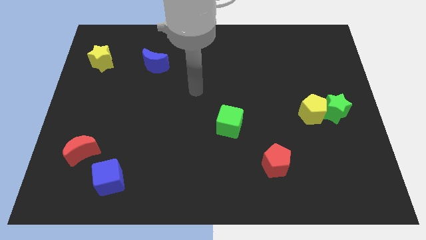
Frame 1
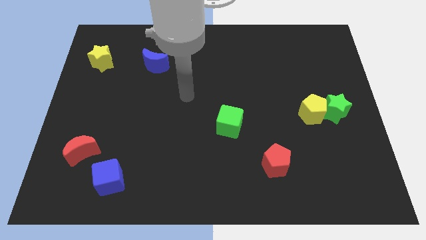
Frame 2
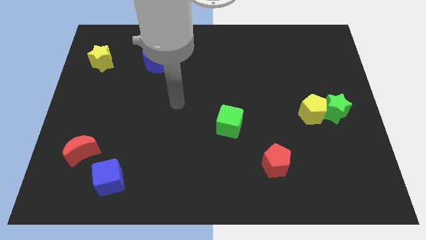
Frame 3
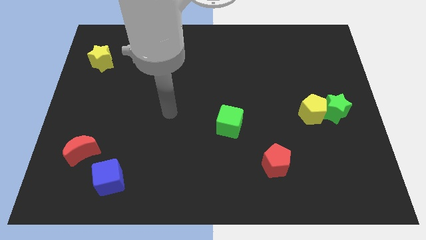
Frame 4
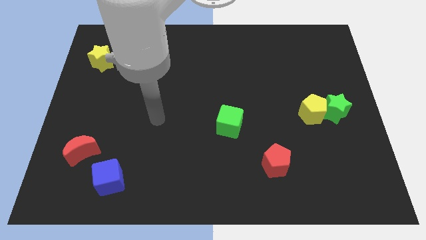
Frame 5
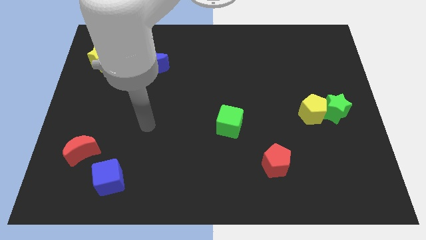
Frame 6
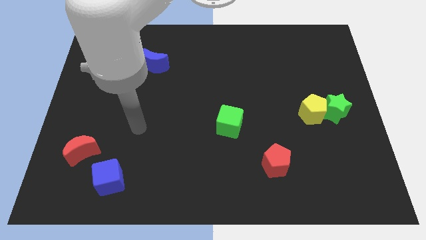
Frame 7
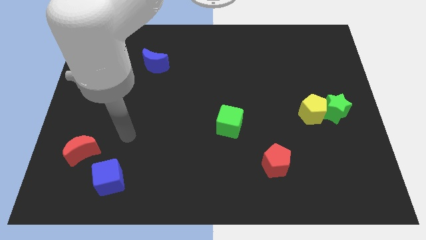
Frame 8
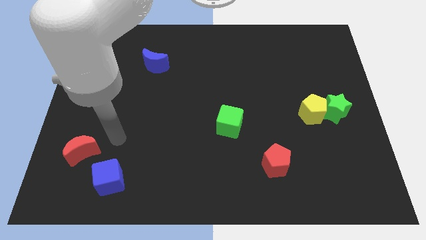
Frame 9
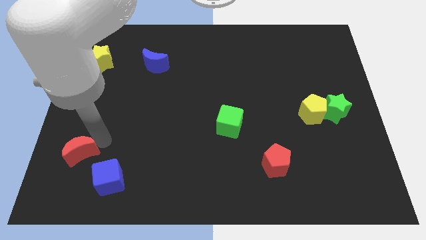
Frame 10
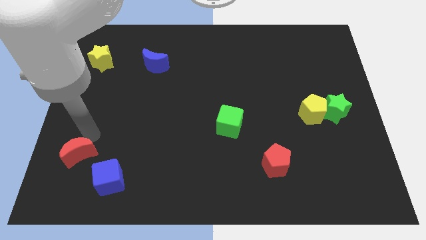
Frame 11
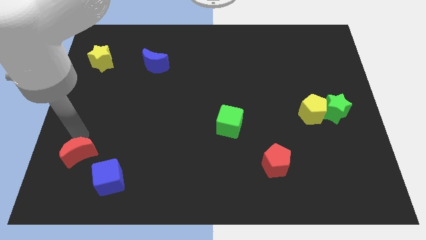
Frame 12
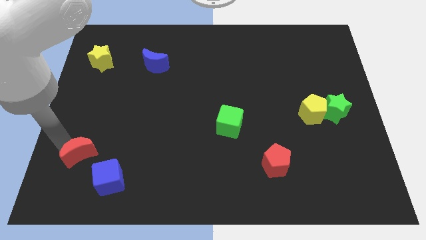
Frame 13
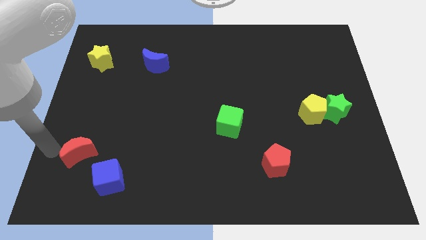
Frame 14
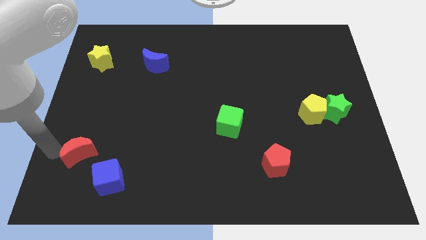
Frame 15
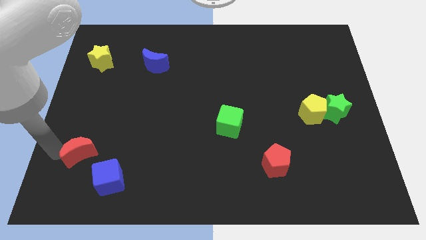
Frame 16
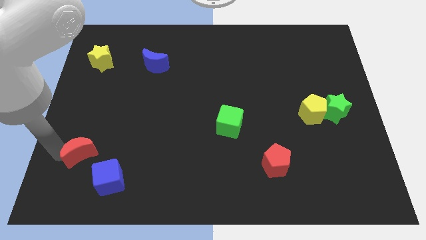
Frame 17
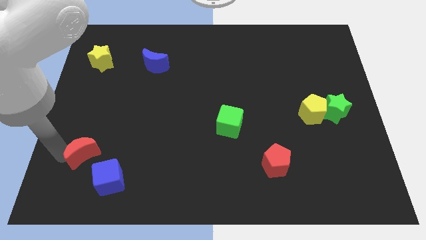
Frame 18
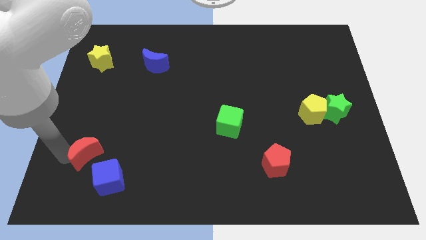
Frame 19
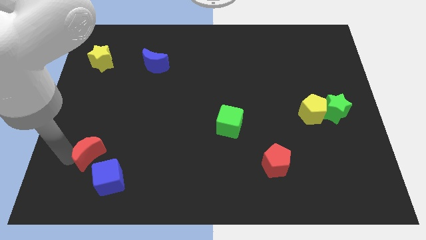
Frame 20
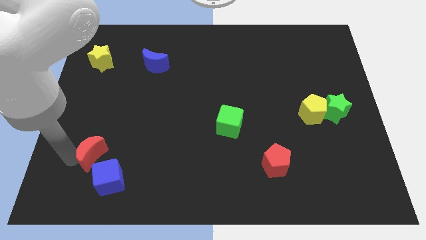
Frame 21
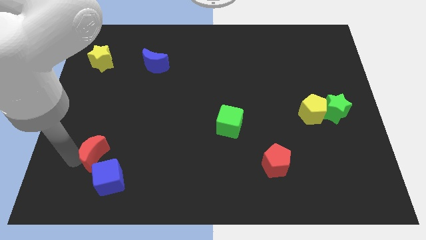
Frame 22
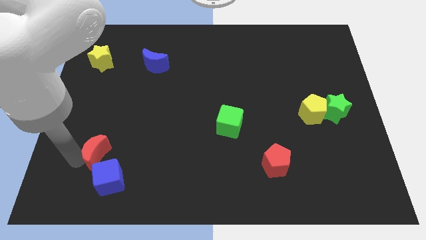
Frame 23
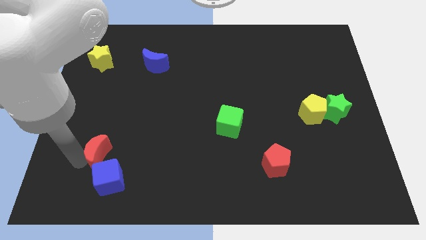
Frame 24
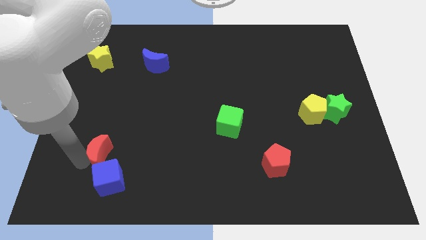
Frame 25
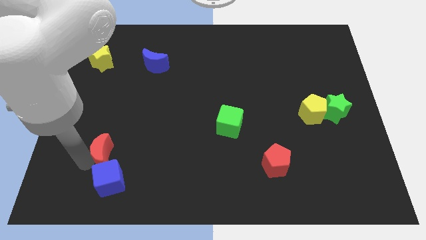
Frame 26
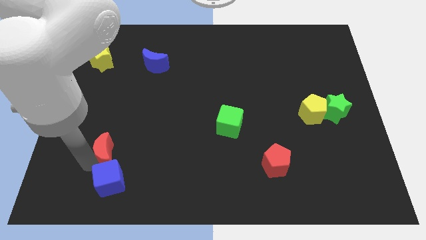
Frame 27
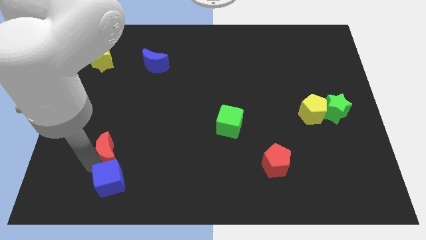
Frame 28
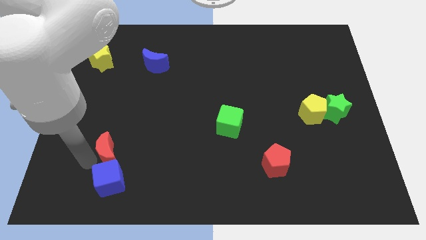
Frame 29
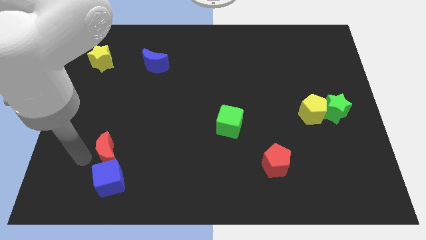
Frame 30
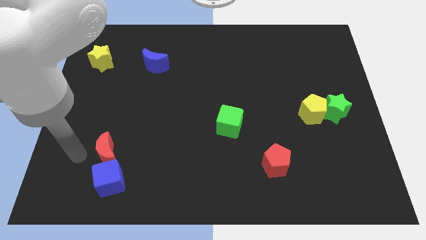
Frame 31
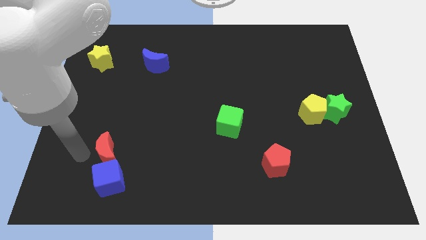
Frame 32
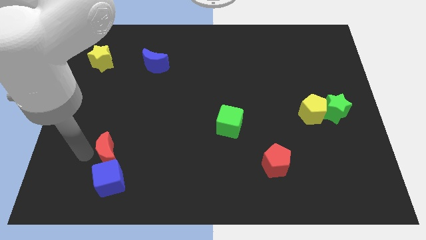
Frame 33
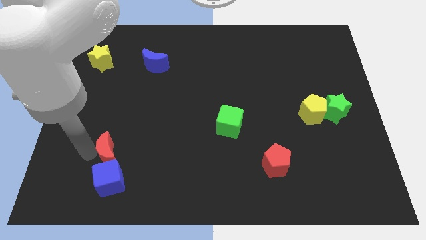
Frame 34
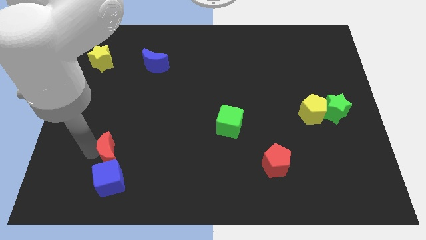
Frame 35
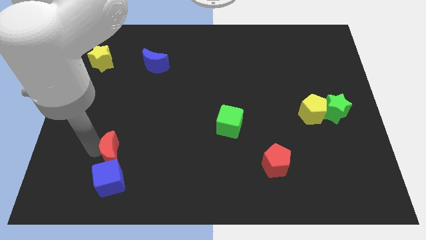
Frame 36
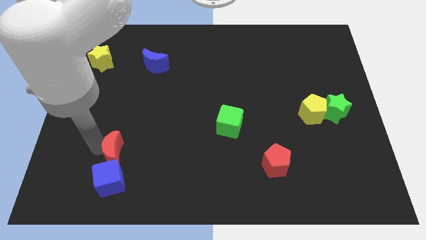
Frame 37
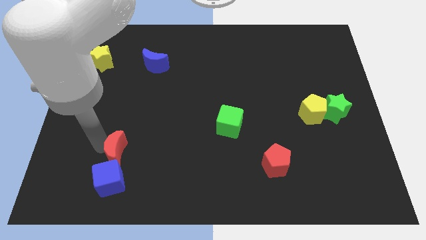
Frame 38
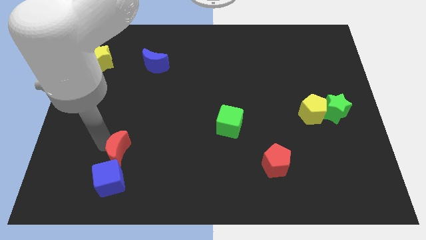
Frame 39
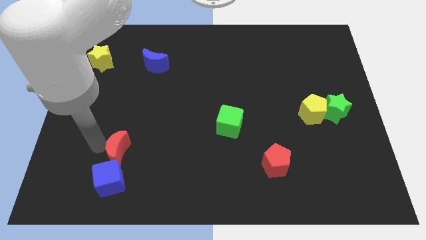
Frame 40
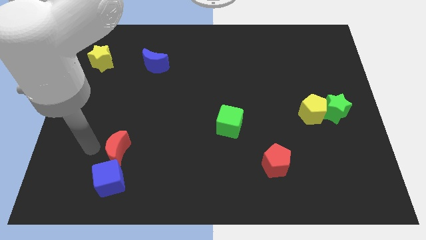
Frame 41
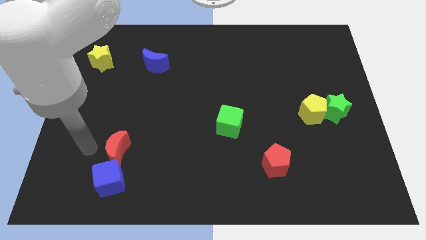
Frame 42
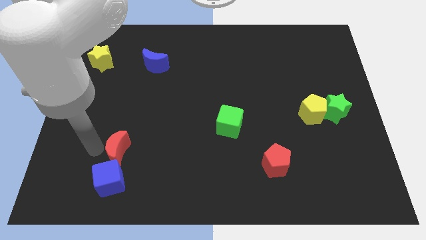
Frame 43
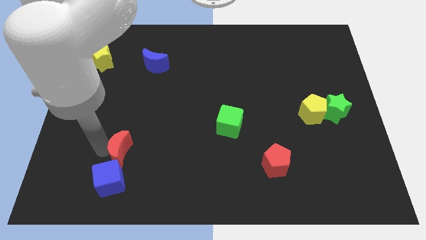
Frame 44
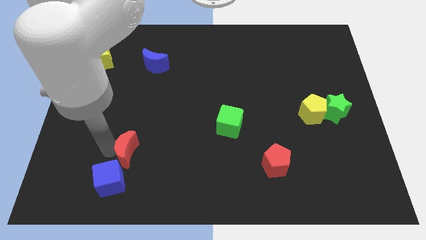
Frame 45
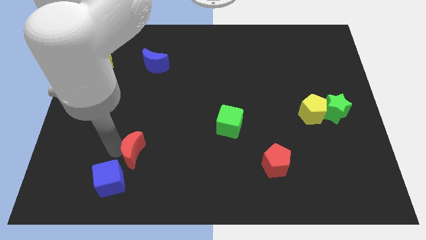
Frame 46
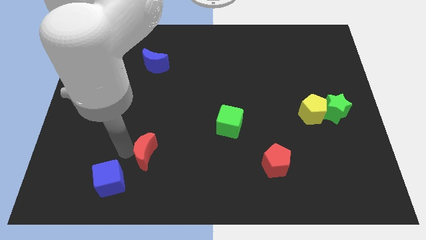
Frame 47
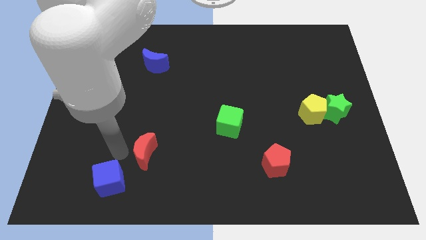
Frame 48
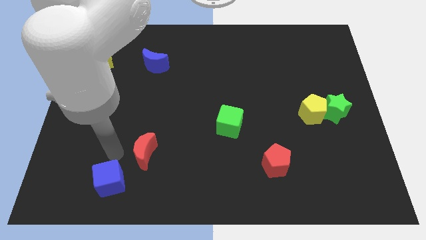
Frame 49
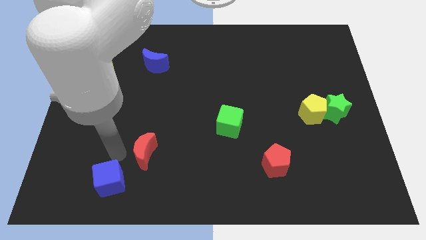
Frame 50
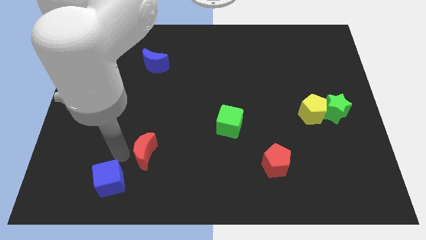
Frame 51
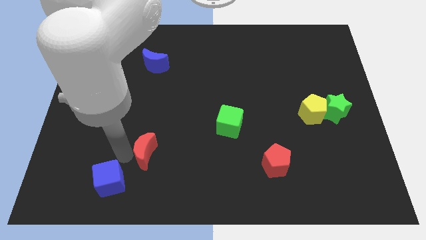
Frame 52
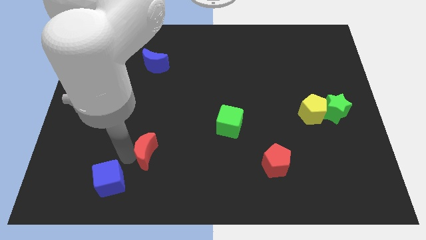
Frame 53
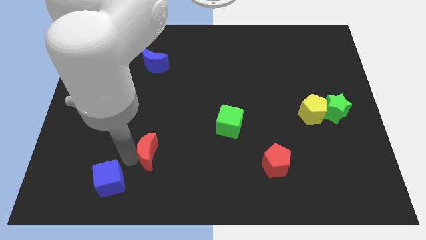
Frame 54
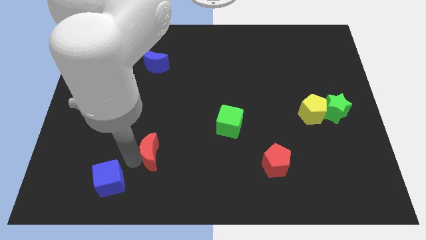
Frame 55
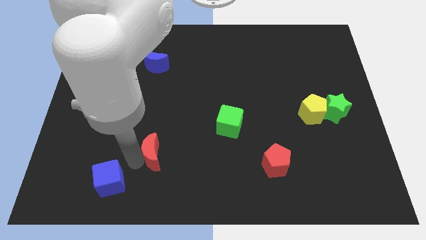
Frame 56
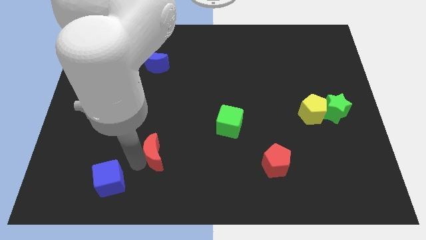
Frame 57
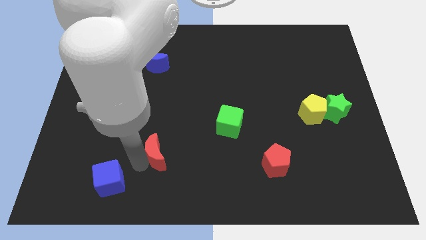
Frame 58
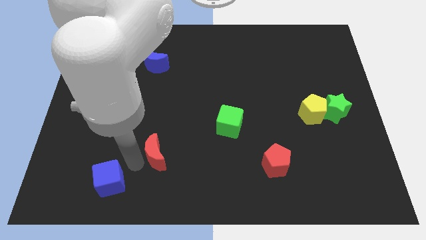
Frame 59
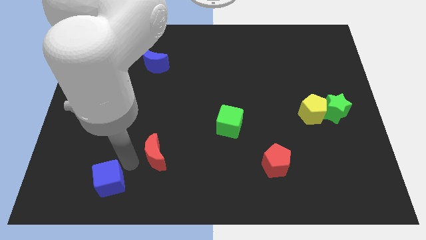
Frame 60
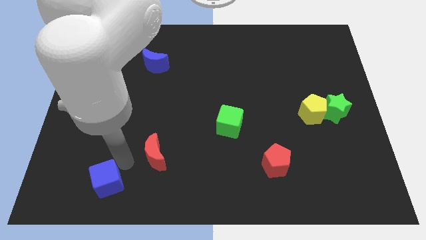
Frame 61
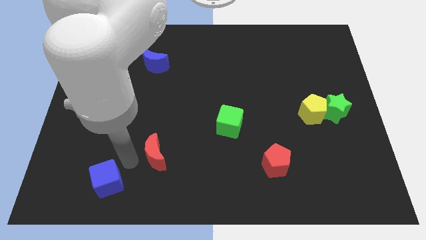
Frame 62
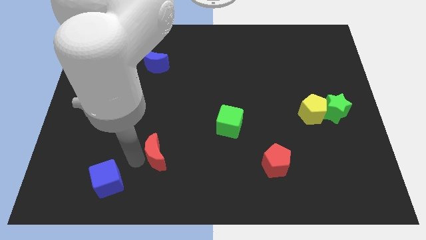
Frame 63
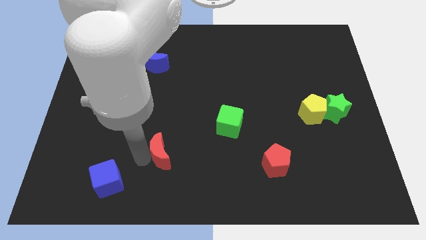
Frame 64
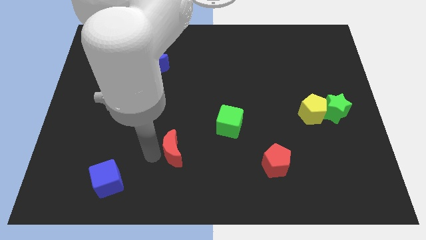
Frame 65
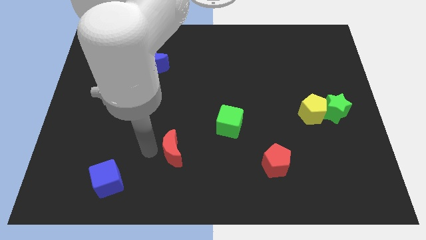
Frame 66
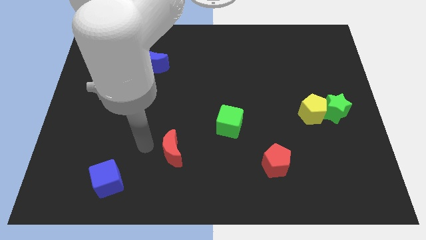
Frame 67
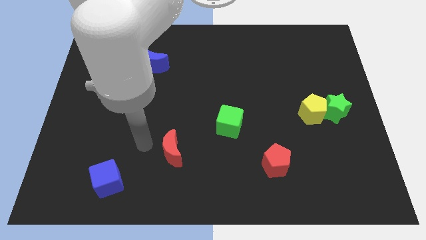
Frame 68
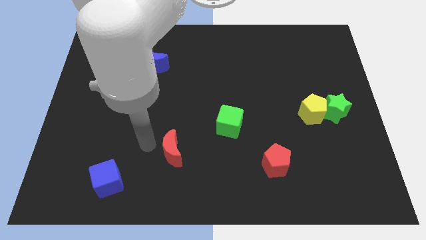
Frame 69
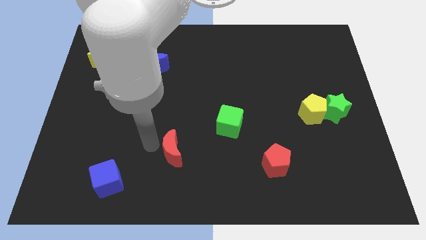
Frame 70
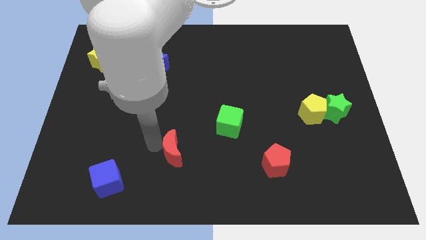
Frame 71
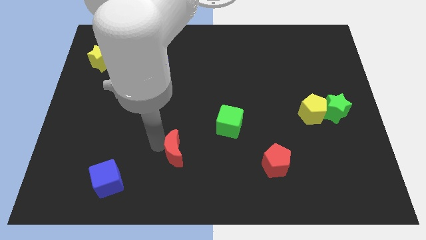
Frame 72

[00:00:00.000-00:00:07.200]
move the red moon right

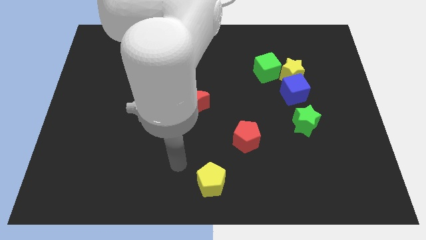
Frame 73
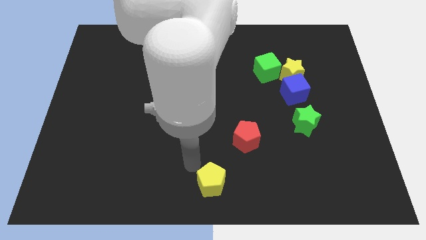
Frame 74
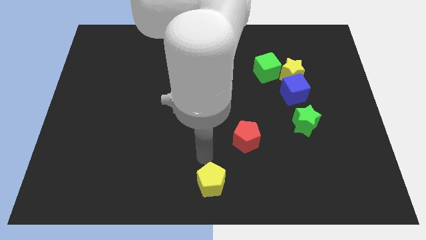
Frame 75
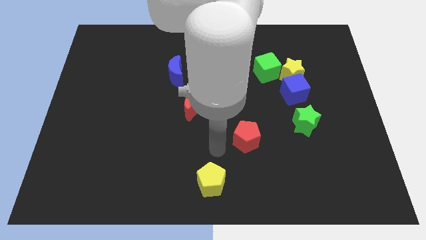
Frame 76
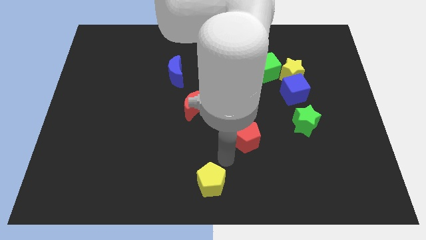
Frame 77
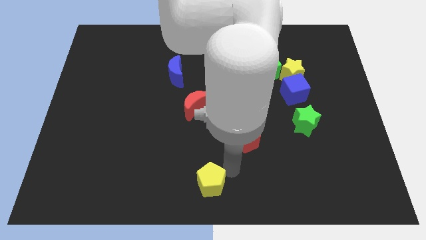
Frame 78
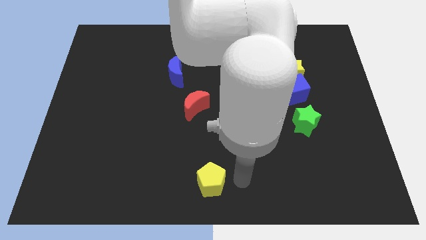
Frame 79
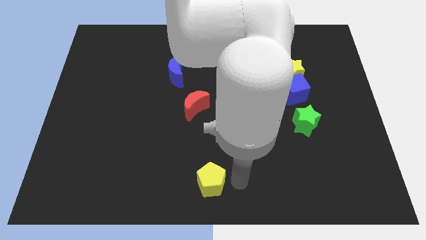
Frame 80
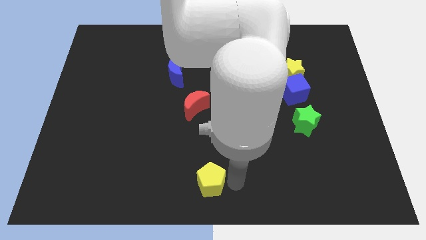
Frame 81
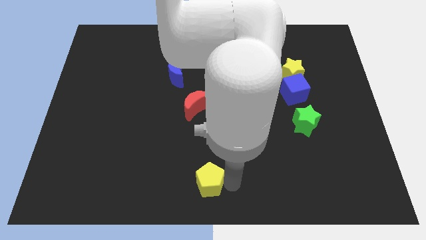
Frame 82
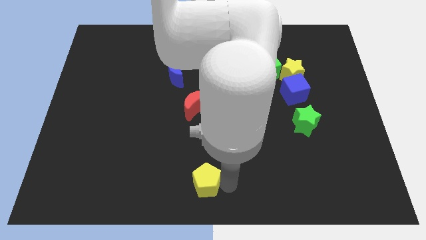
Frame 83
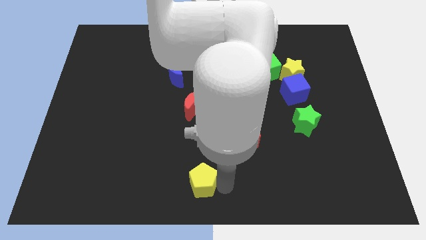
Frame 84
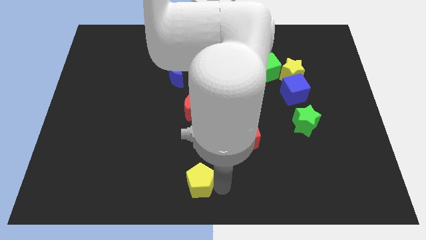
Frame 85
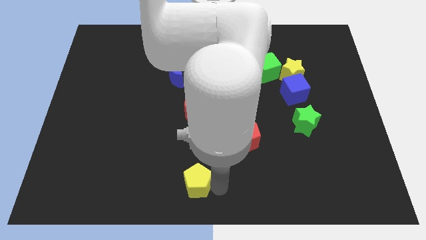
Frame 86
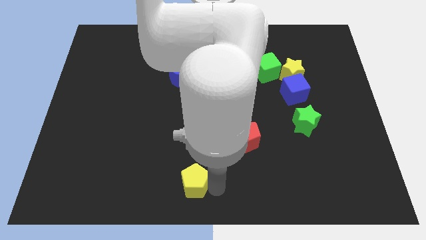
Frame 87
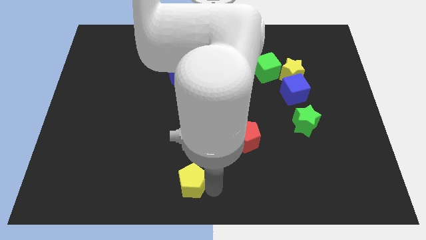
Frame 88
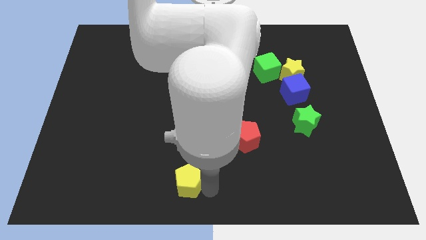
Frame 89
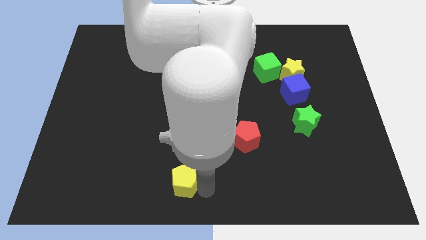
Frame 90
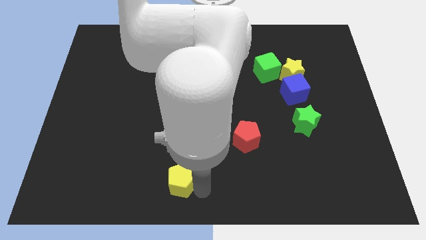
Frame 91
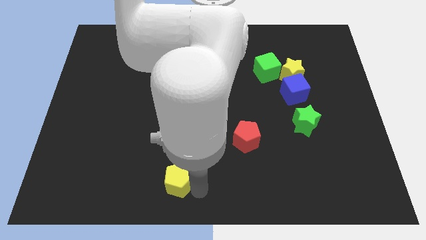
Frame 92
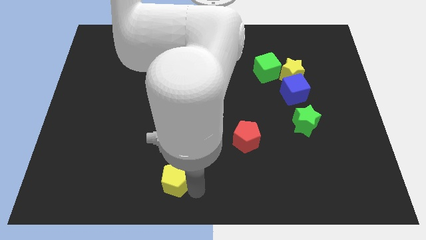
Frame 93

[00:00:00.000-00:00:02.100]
slide the yellow pentagon to the left a little
